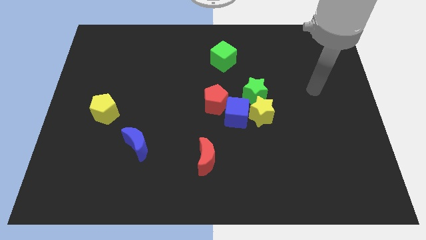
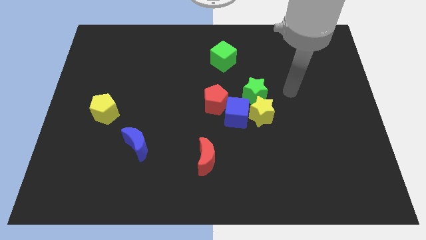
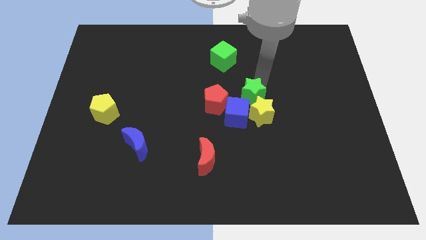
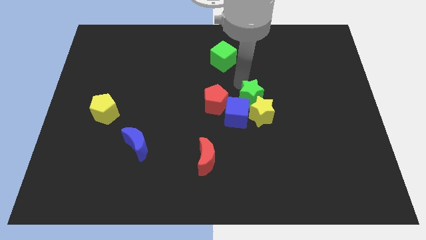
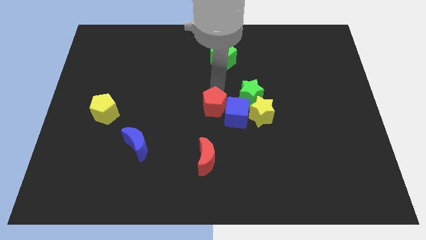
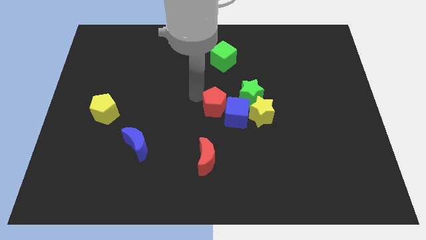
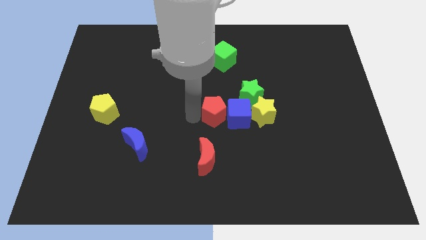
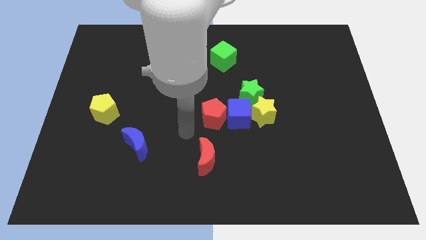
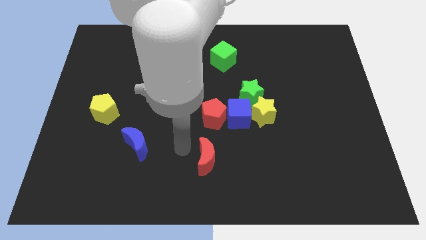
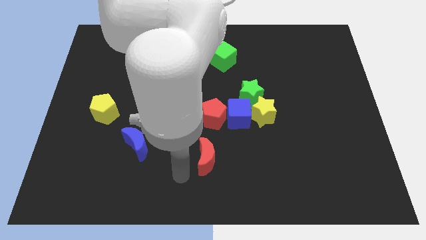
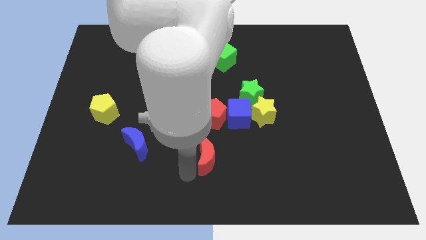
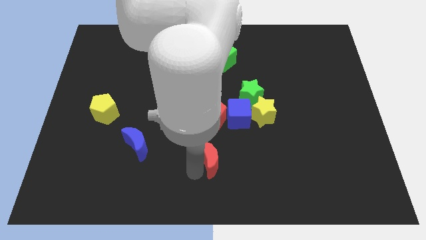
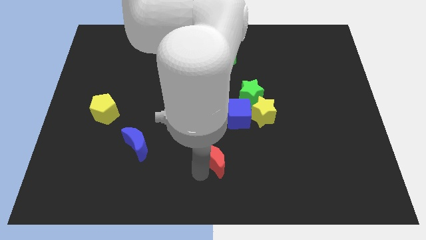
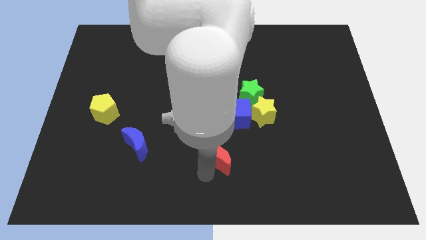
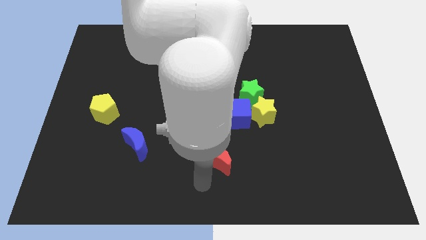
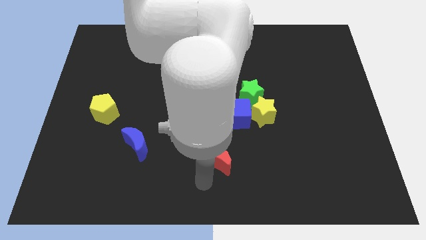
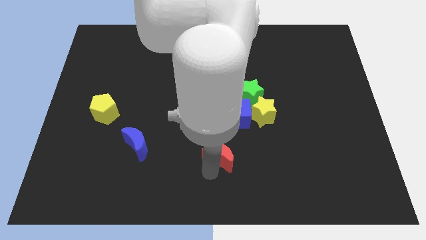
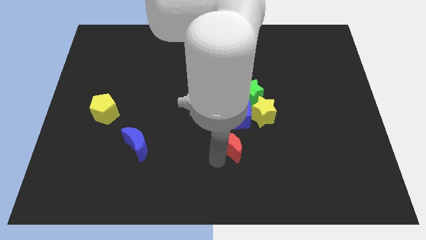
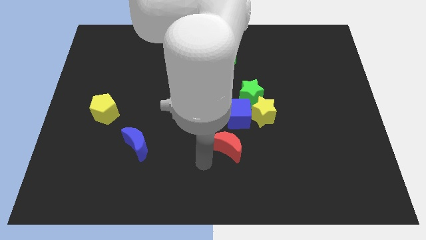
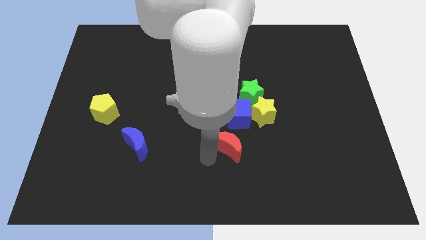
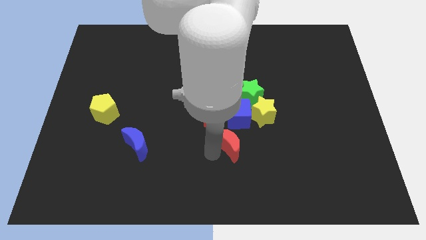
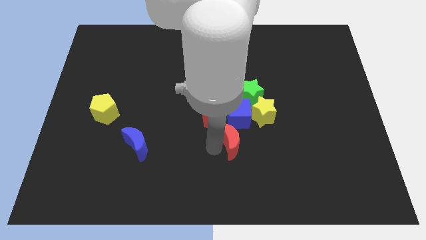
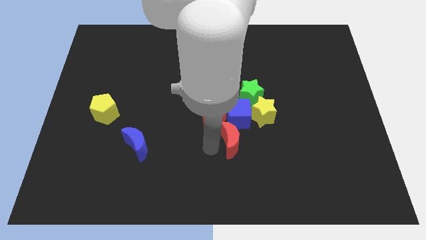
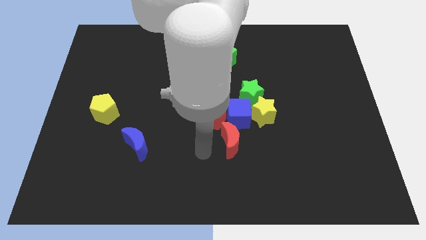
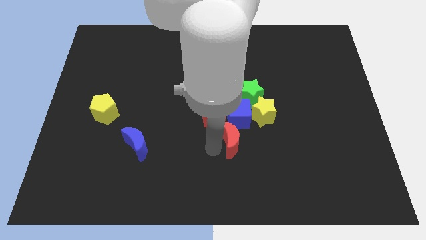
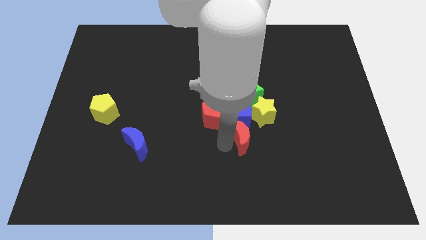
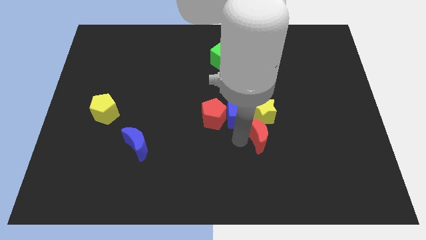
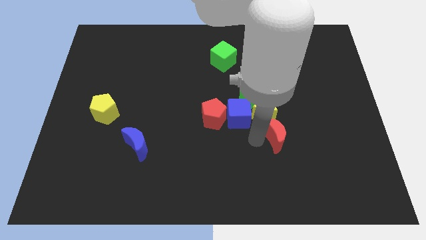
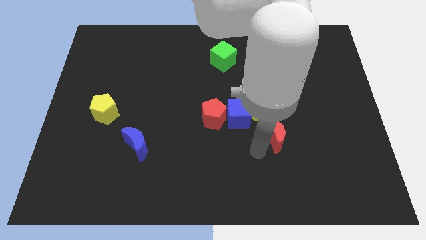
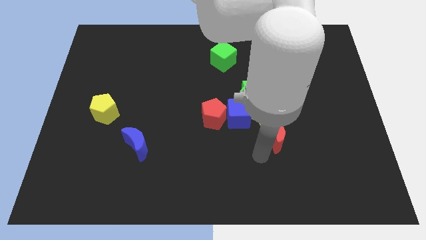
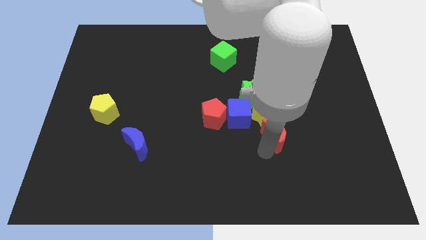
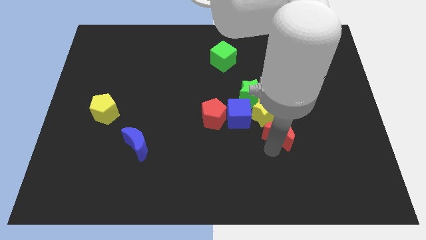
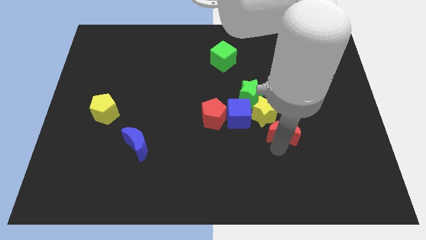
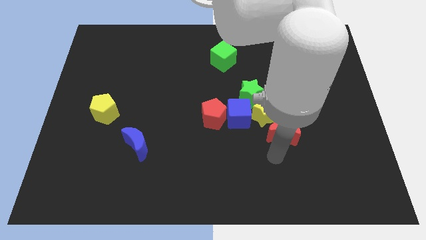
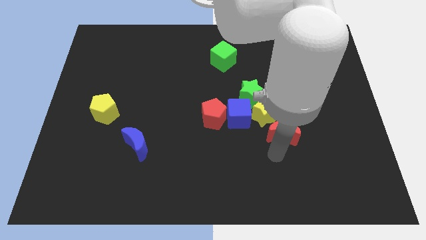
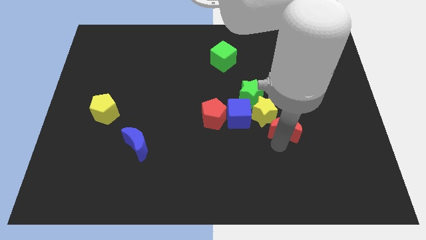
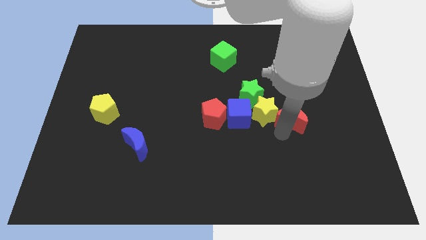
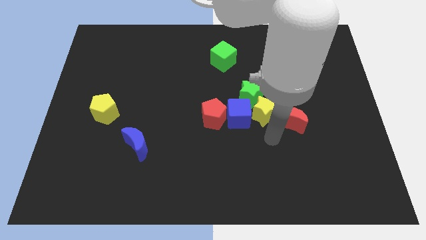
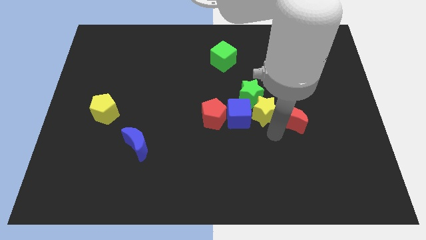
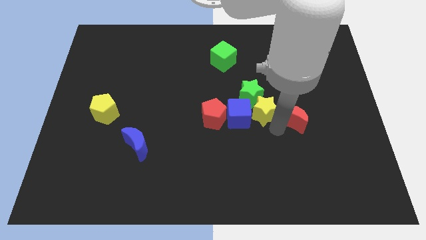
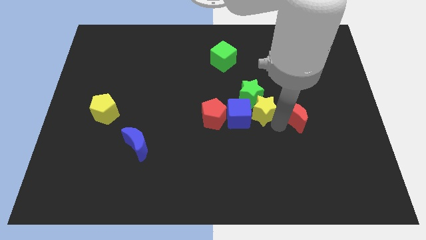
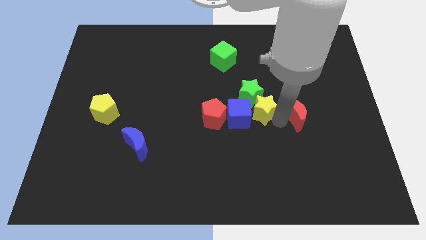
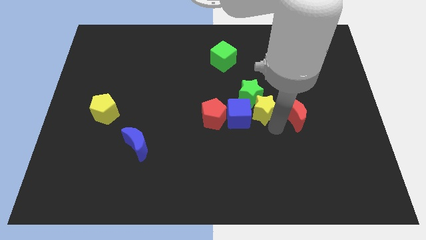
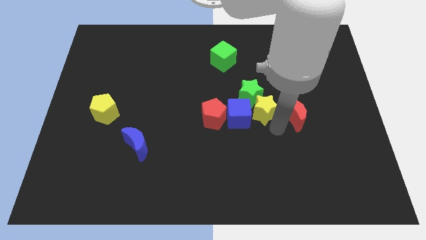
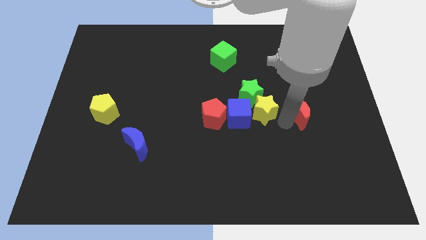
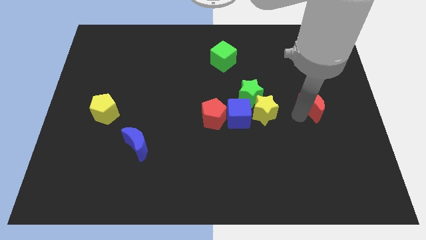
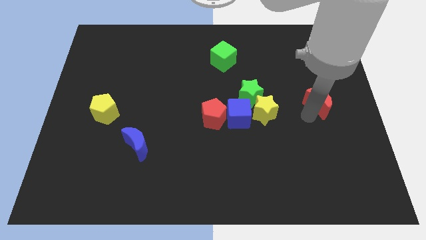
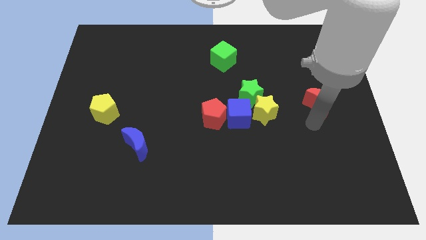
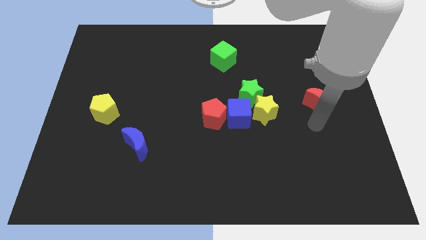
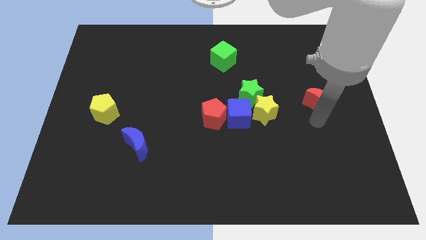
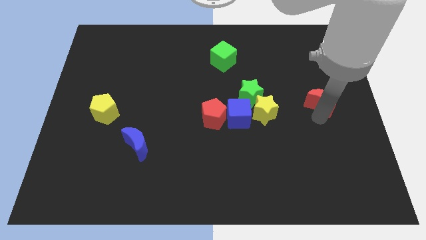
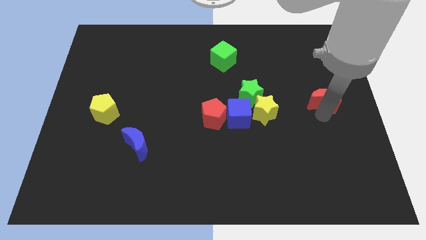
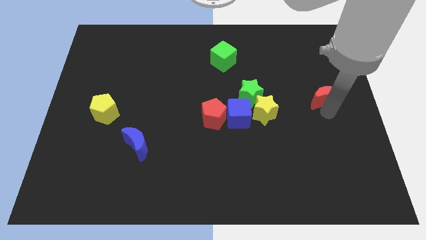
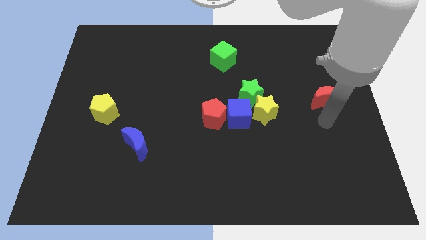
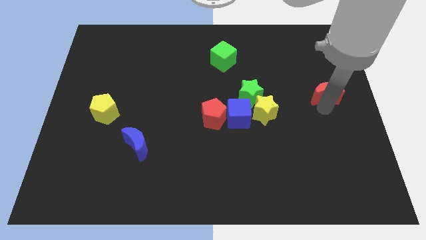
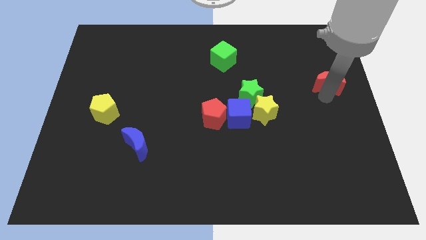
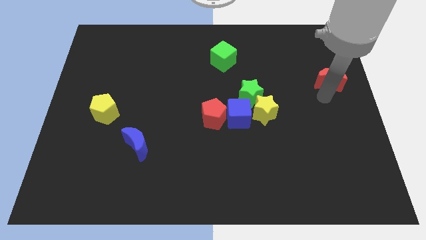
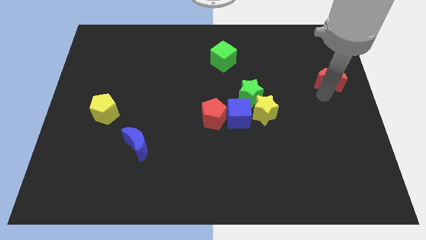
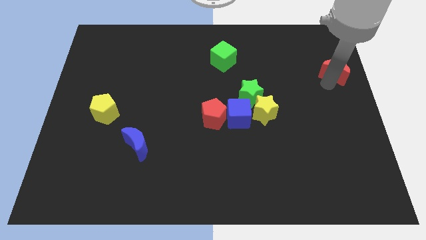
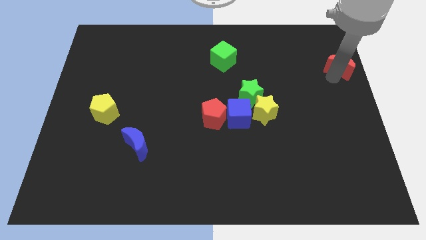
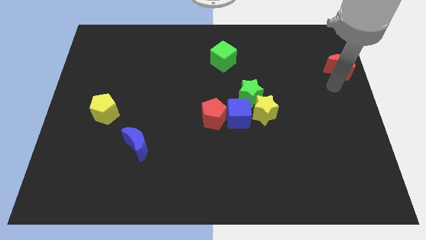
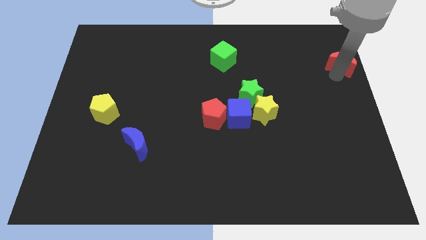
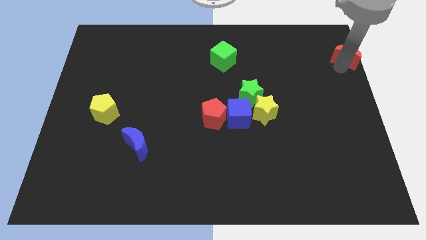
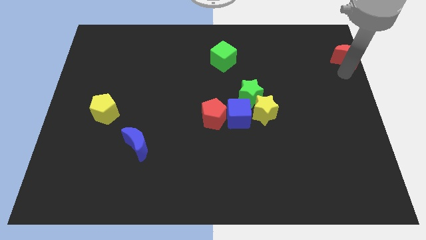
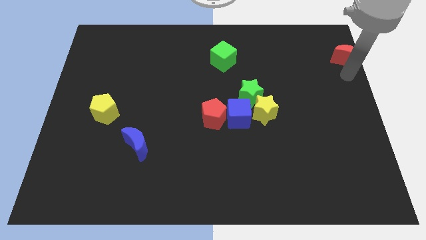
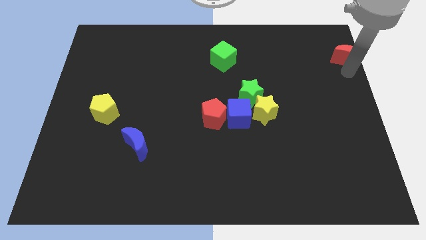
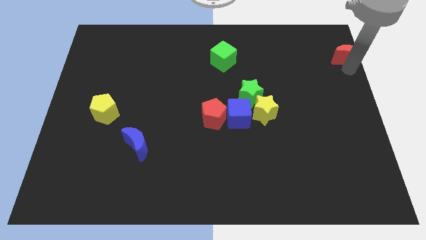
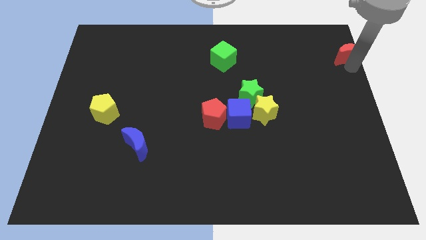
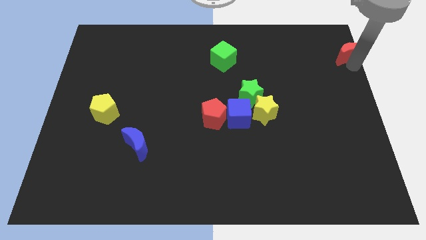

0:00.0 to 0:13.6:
push the red moon to the top right of the board
